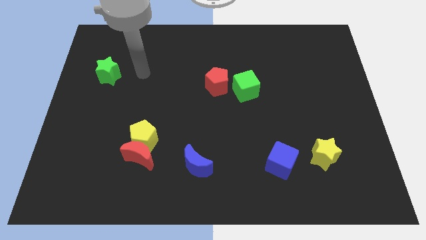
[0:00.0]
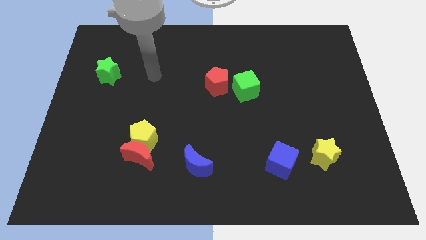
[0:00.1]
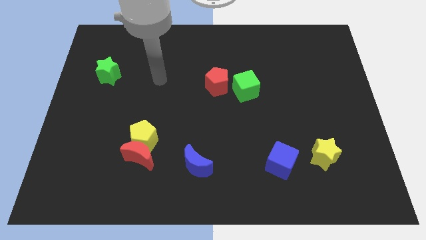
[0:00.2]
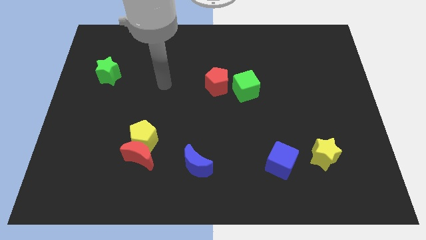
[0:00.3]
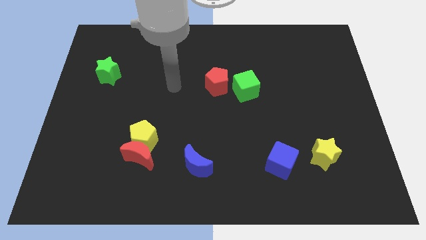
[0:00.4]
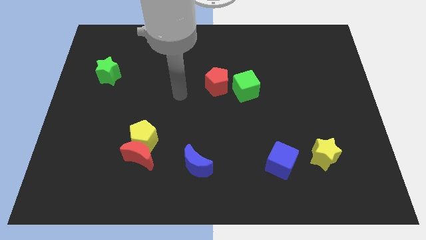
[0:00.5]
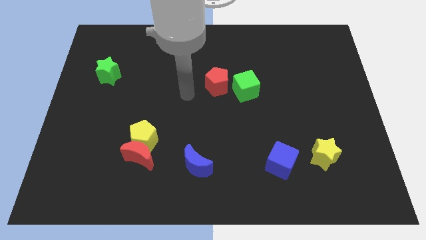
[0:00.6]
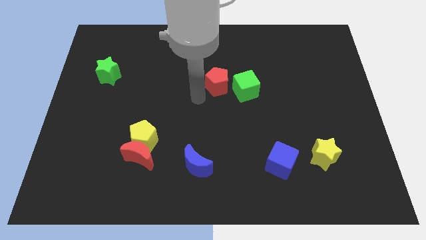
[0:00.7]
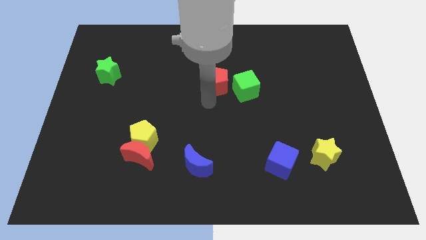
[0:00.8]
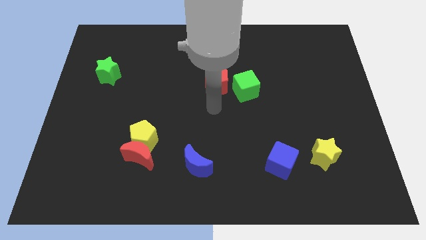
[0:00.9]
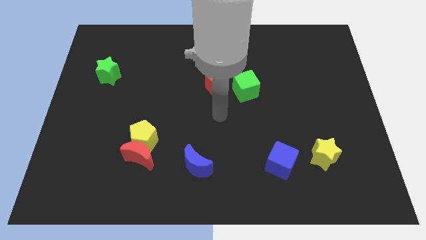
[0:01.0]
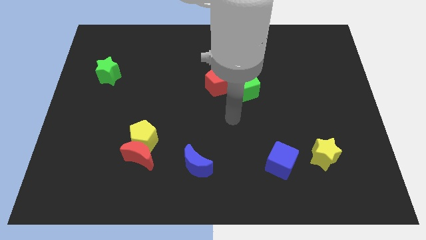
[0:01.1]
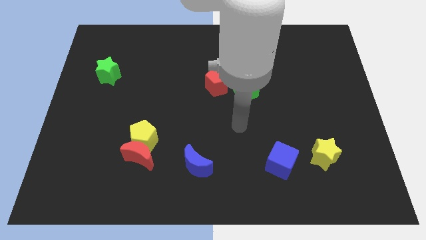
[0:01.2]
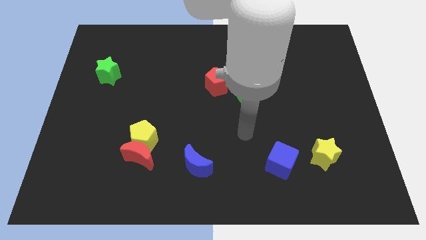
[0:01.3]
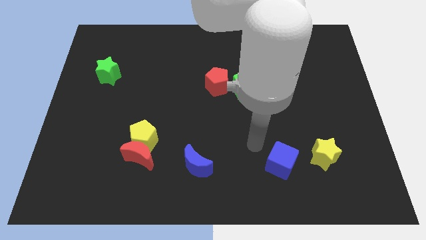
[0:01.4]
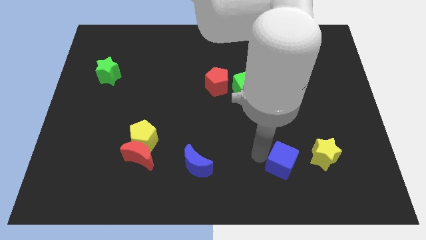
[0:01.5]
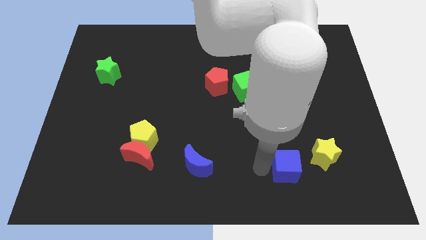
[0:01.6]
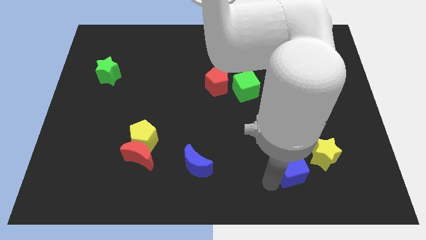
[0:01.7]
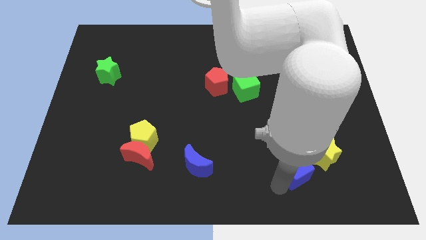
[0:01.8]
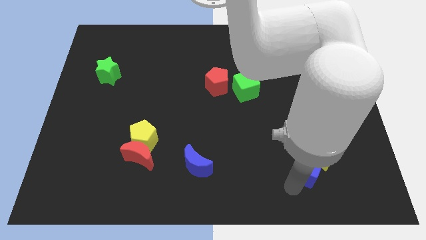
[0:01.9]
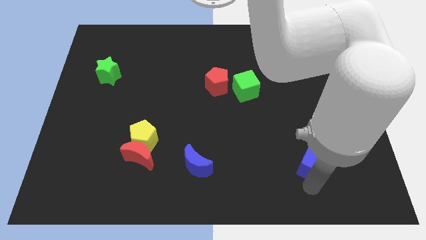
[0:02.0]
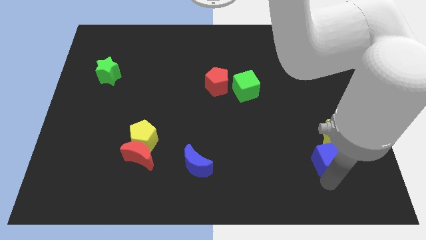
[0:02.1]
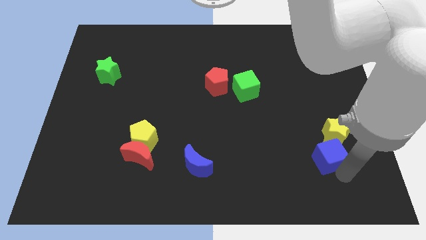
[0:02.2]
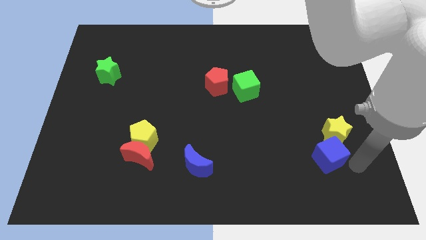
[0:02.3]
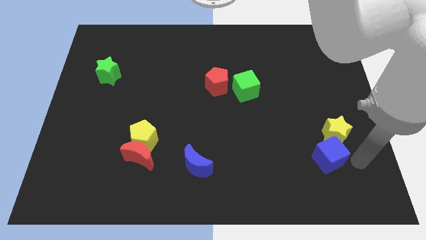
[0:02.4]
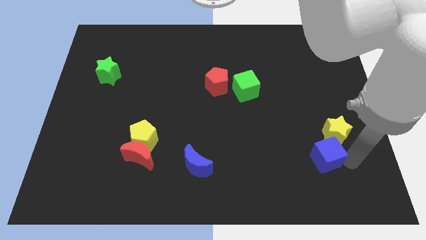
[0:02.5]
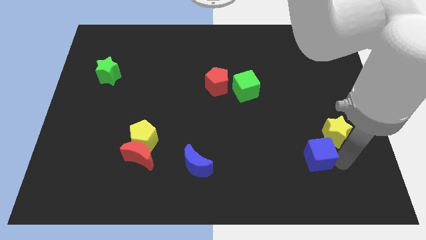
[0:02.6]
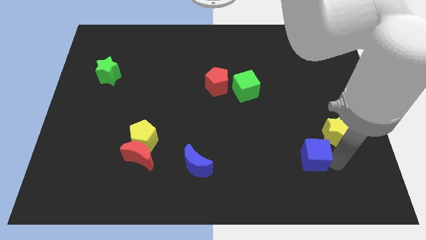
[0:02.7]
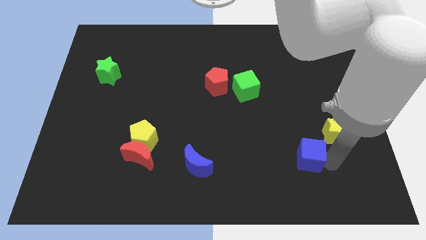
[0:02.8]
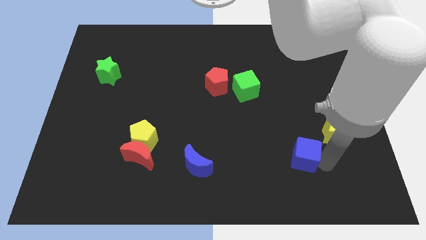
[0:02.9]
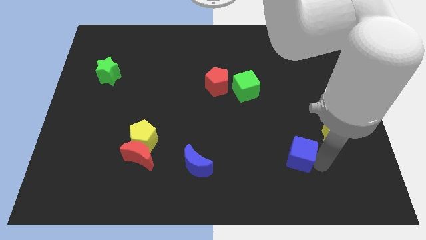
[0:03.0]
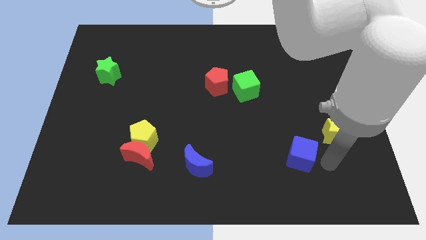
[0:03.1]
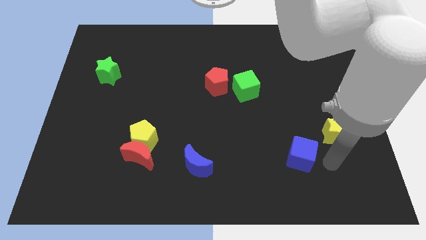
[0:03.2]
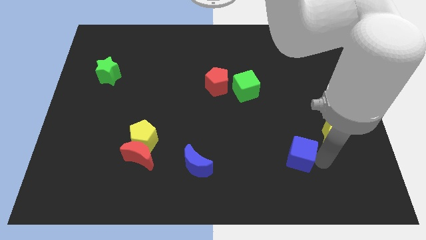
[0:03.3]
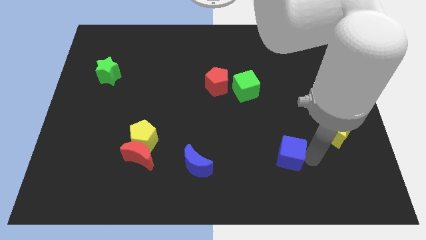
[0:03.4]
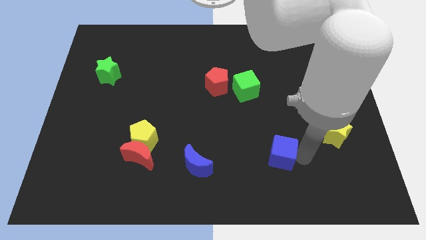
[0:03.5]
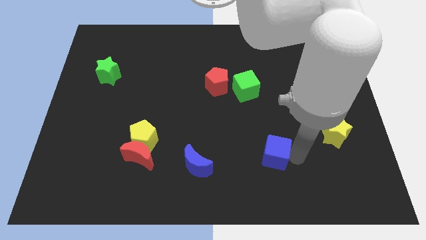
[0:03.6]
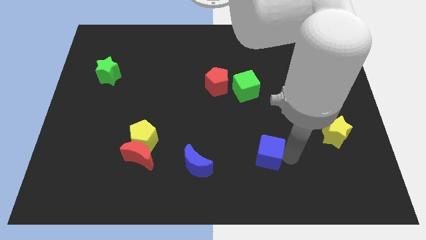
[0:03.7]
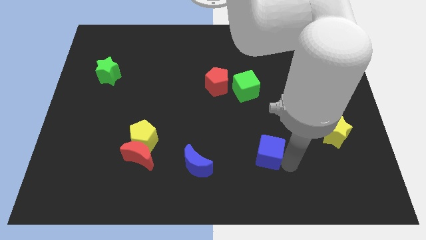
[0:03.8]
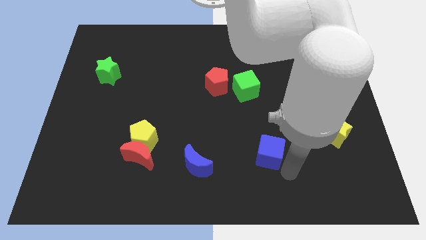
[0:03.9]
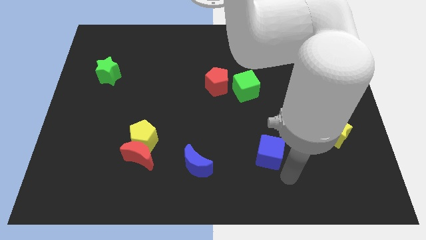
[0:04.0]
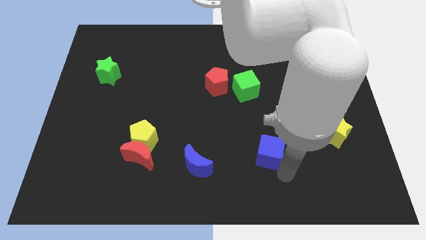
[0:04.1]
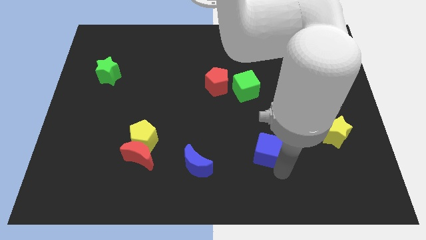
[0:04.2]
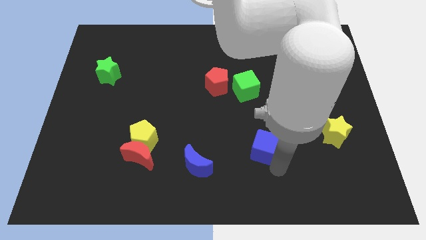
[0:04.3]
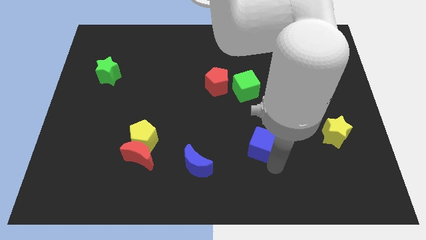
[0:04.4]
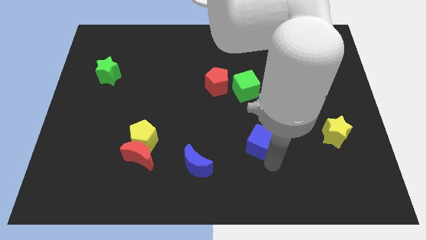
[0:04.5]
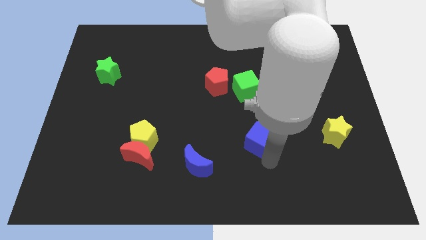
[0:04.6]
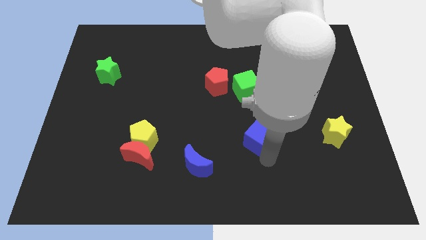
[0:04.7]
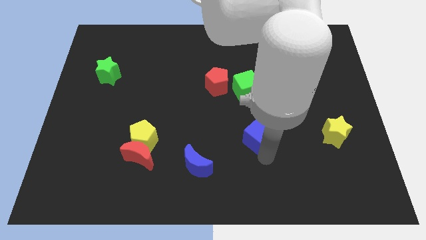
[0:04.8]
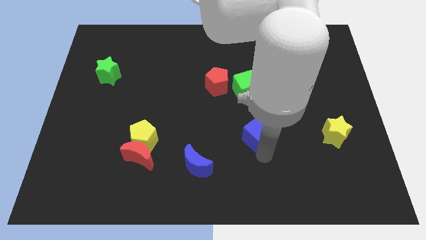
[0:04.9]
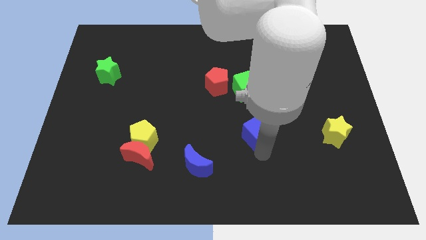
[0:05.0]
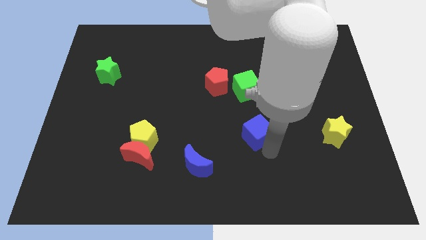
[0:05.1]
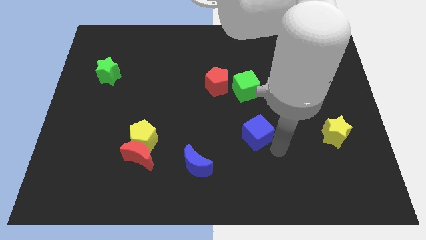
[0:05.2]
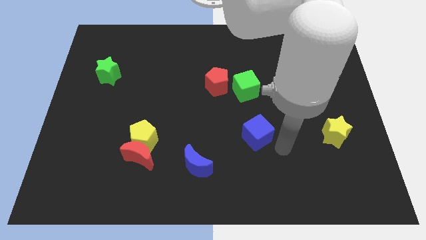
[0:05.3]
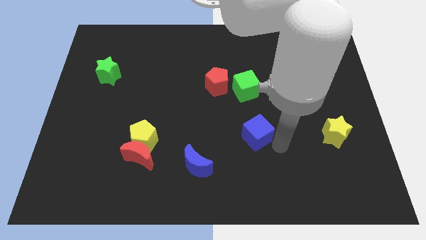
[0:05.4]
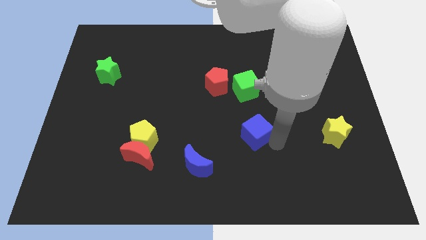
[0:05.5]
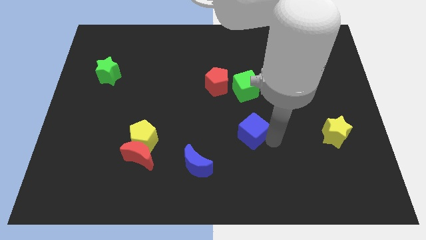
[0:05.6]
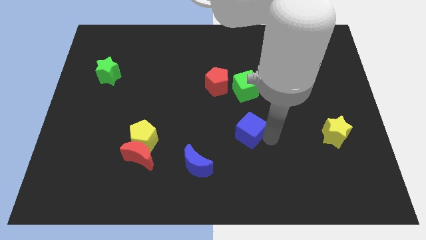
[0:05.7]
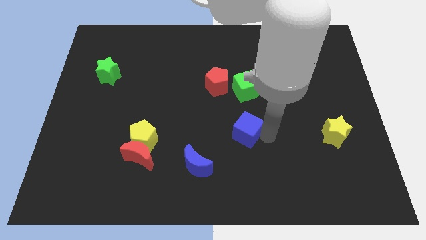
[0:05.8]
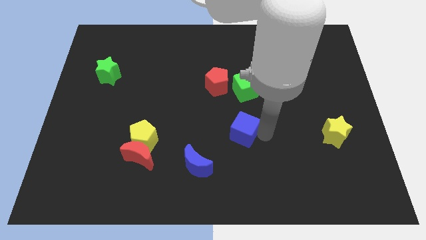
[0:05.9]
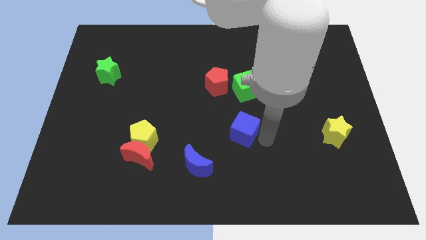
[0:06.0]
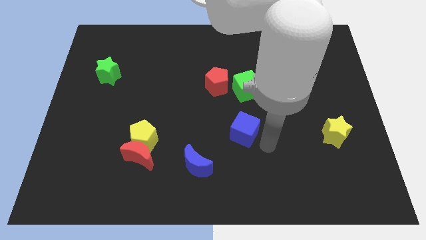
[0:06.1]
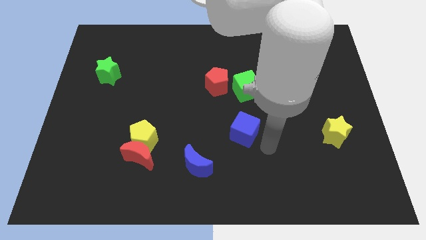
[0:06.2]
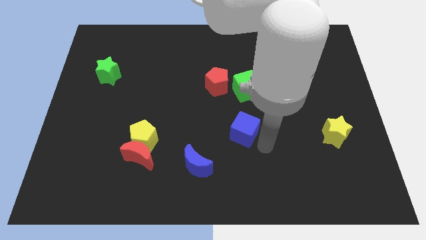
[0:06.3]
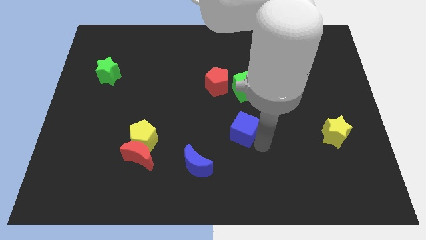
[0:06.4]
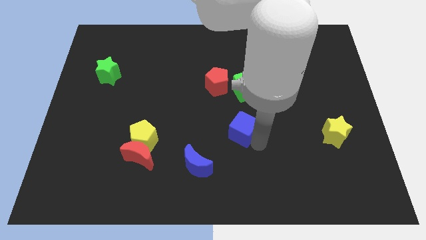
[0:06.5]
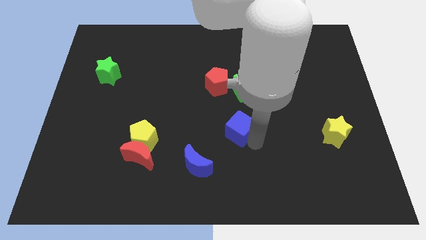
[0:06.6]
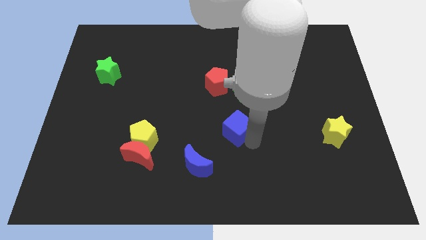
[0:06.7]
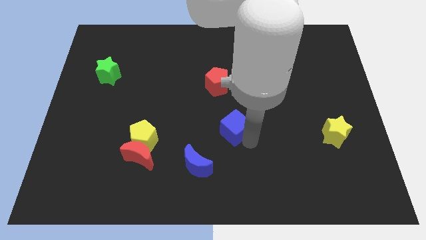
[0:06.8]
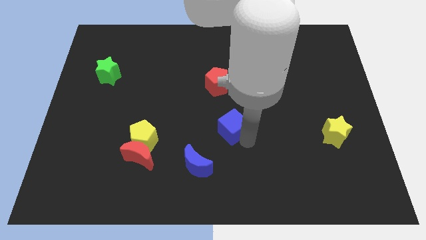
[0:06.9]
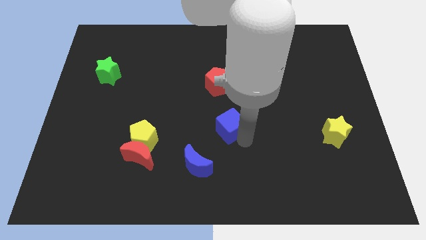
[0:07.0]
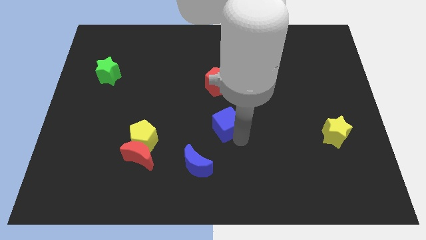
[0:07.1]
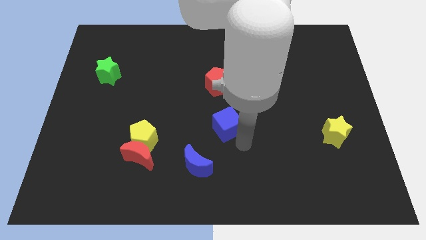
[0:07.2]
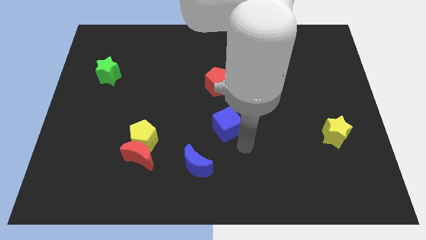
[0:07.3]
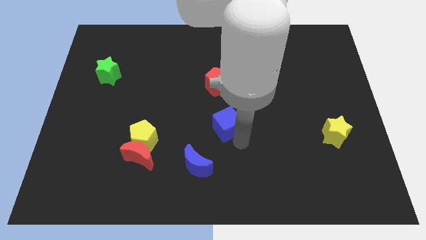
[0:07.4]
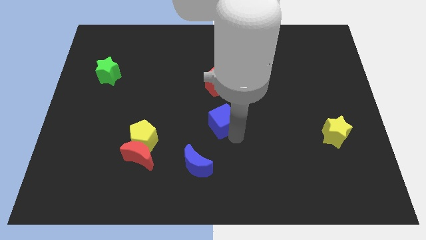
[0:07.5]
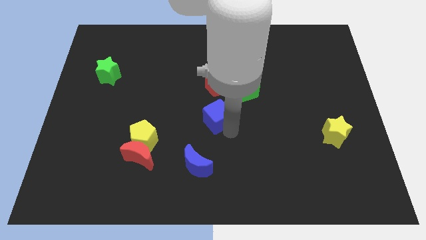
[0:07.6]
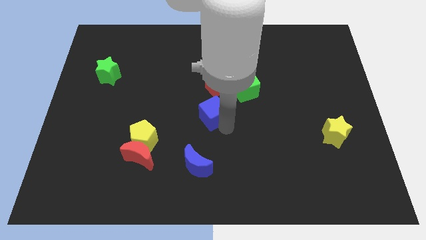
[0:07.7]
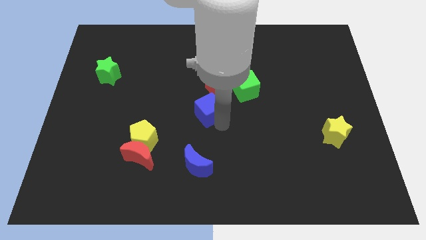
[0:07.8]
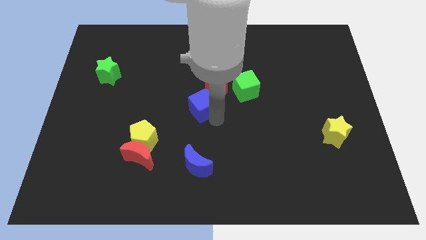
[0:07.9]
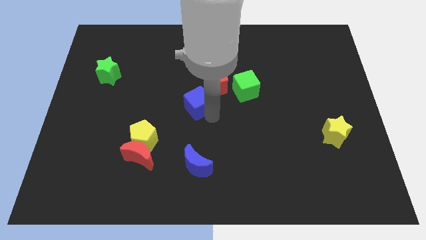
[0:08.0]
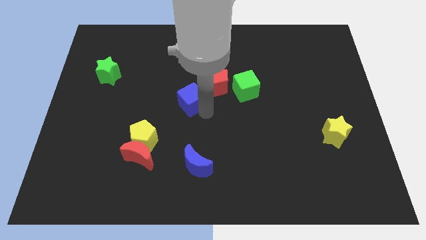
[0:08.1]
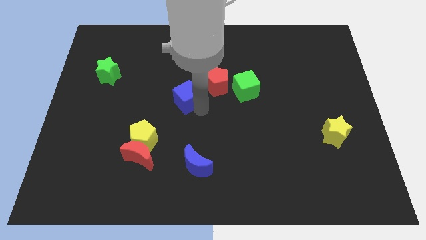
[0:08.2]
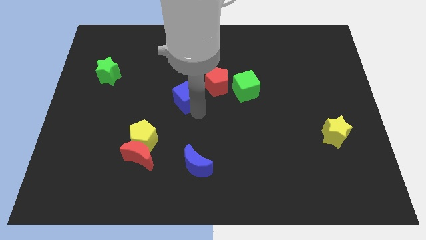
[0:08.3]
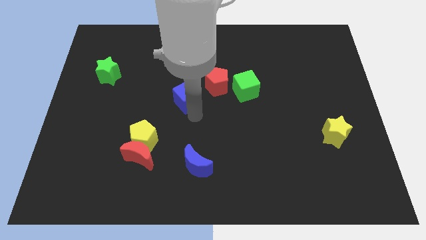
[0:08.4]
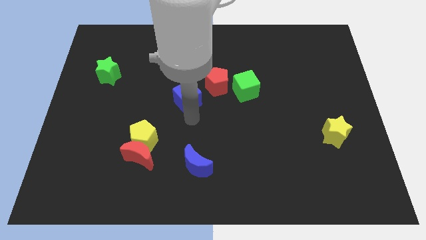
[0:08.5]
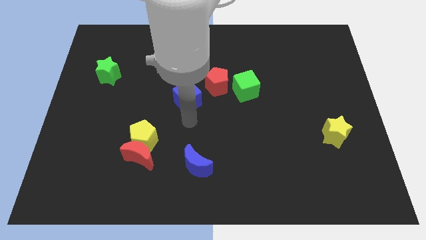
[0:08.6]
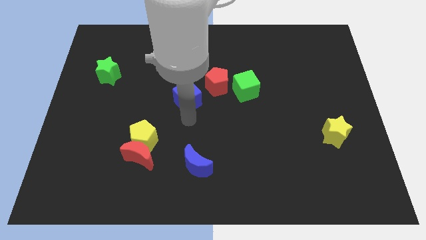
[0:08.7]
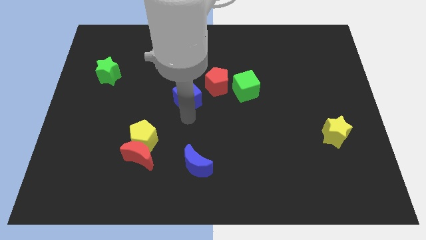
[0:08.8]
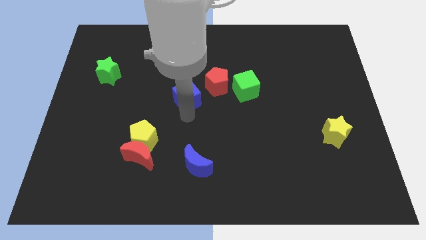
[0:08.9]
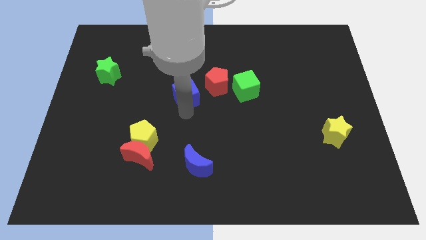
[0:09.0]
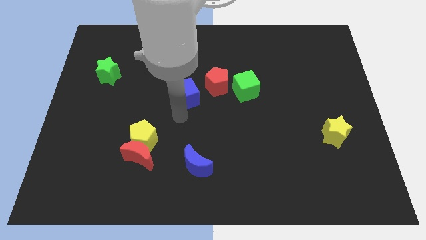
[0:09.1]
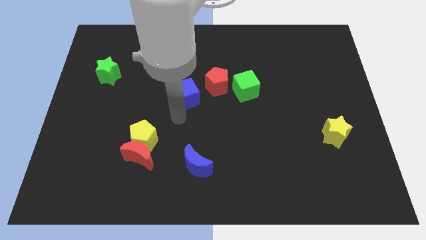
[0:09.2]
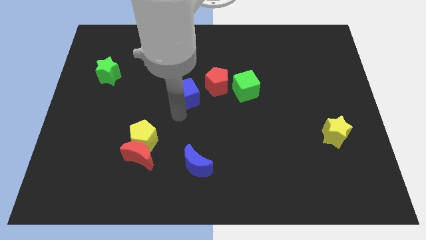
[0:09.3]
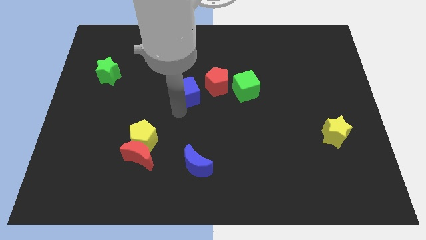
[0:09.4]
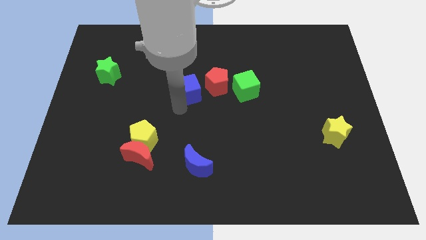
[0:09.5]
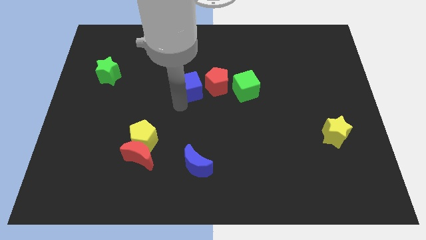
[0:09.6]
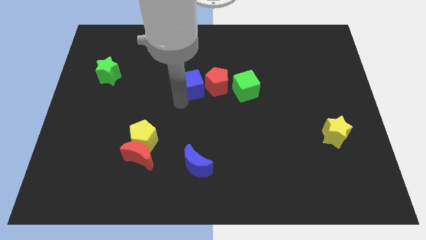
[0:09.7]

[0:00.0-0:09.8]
move the blue cube to the top left of the red pentagon
